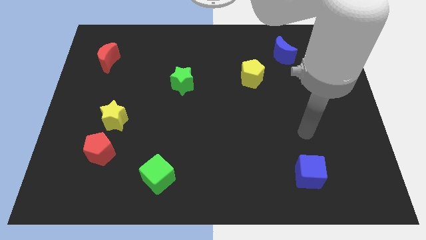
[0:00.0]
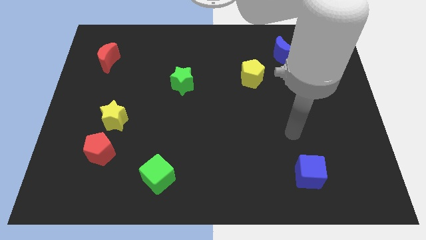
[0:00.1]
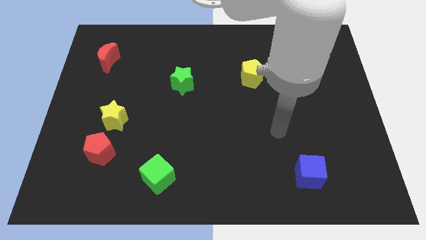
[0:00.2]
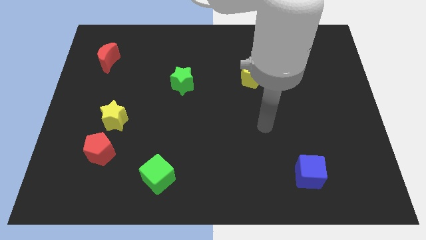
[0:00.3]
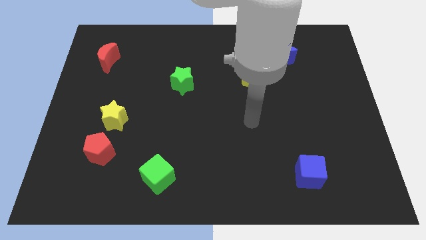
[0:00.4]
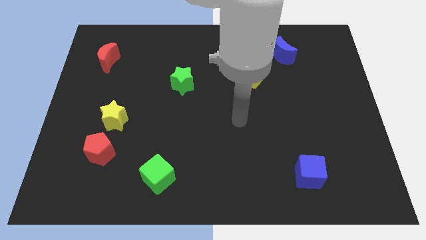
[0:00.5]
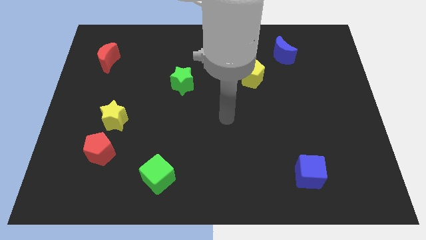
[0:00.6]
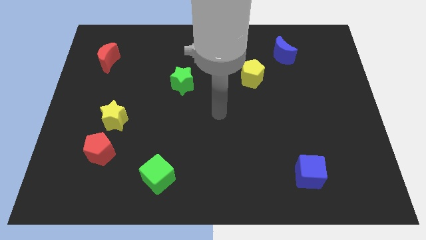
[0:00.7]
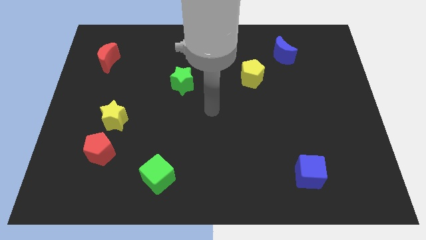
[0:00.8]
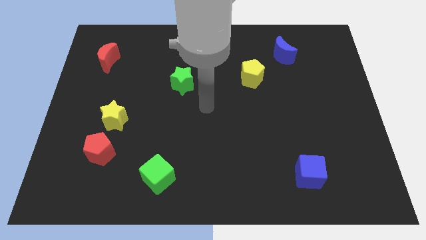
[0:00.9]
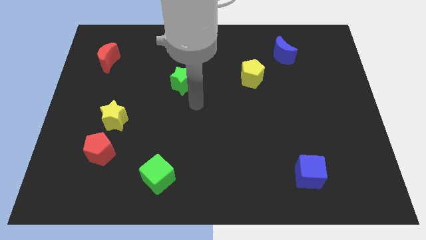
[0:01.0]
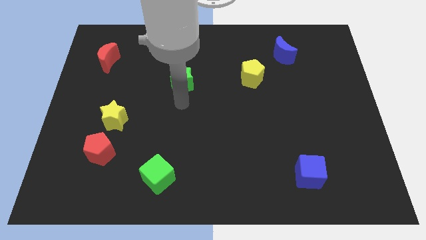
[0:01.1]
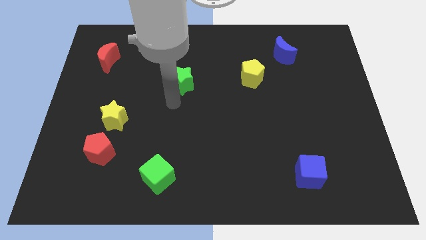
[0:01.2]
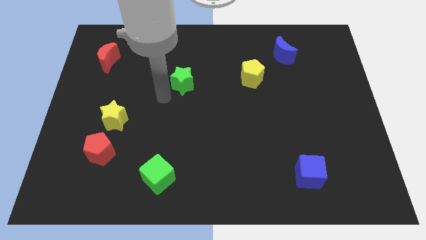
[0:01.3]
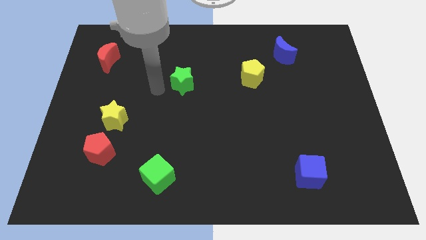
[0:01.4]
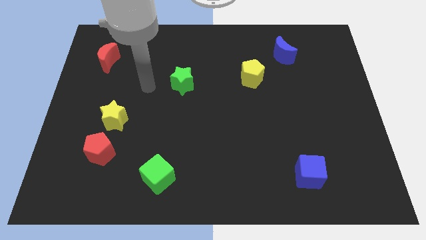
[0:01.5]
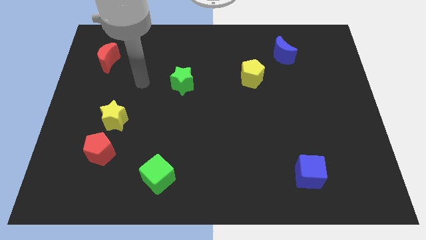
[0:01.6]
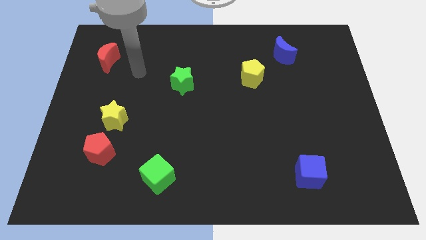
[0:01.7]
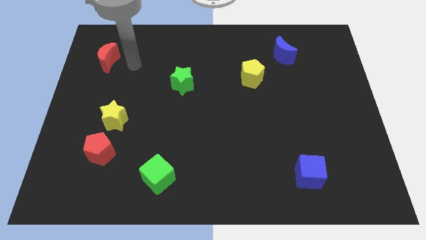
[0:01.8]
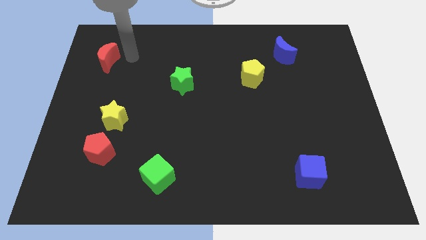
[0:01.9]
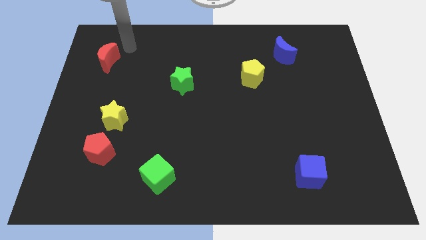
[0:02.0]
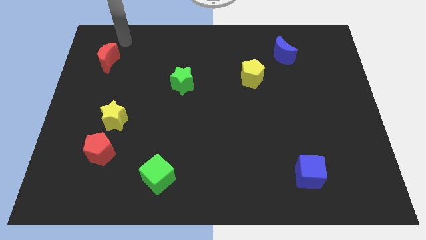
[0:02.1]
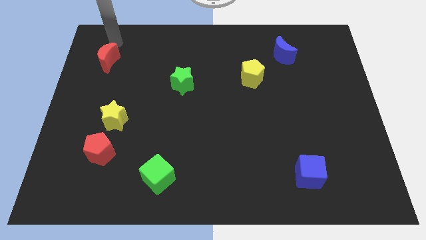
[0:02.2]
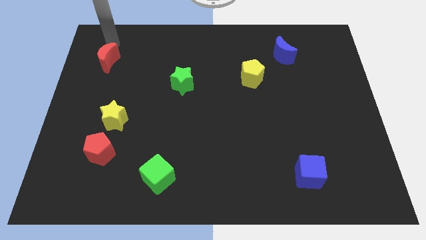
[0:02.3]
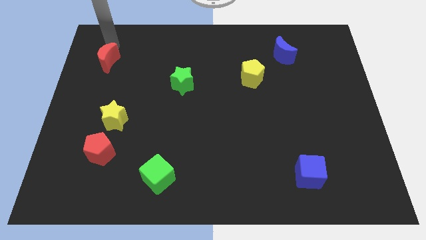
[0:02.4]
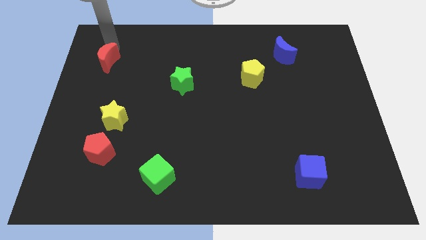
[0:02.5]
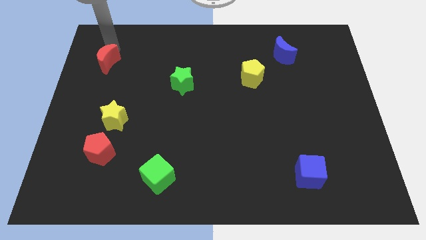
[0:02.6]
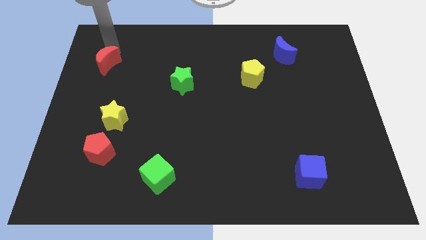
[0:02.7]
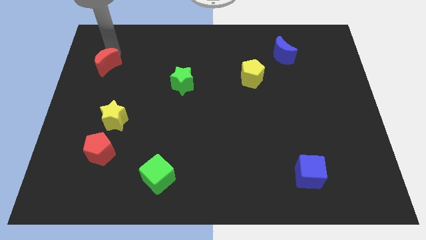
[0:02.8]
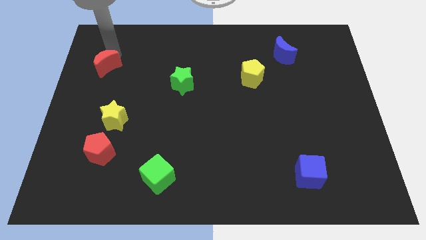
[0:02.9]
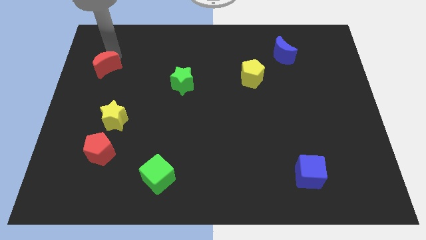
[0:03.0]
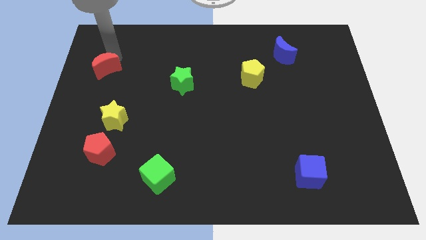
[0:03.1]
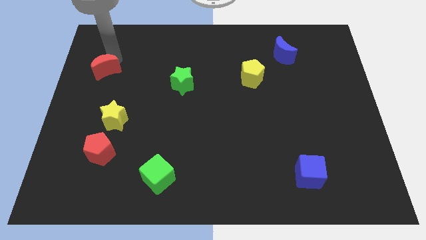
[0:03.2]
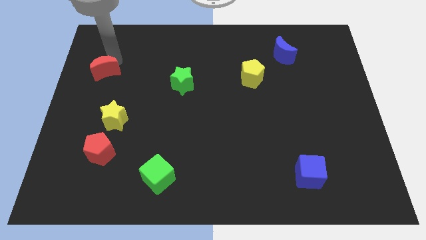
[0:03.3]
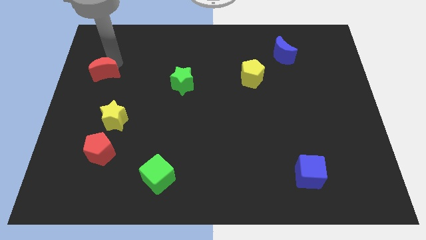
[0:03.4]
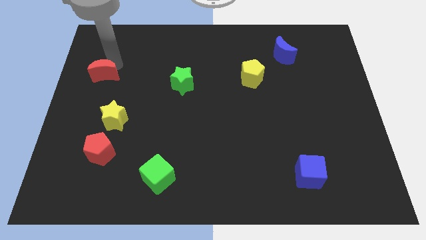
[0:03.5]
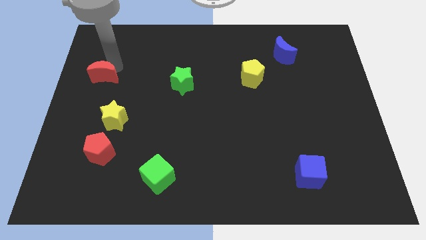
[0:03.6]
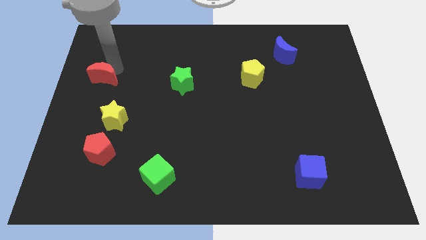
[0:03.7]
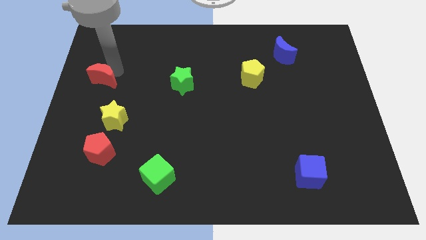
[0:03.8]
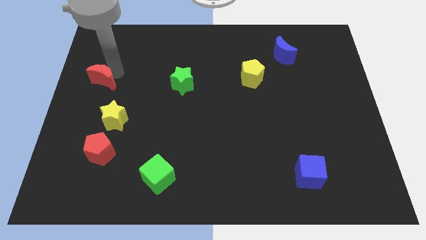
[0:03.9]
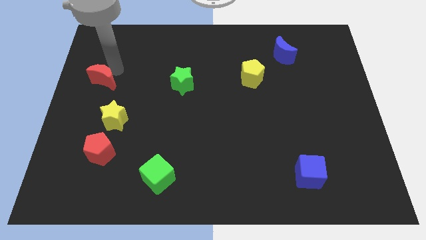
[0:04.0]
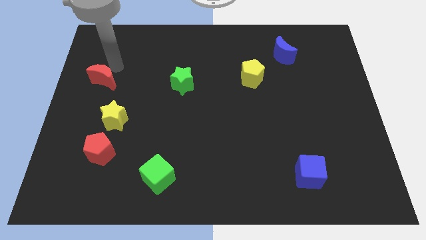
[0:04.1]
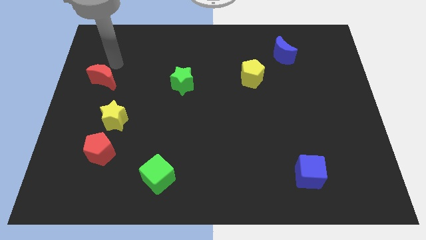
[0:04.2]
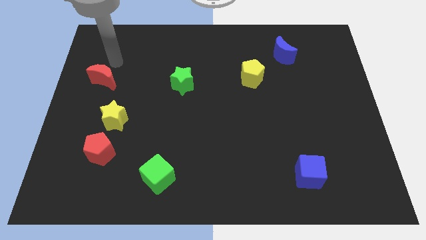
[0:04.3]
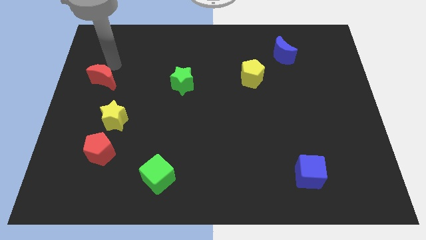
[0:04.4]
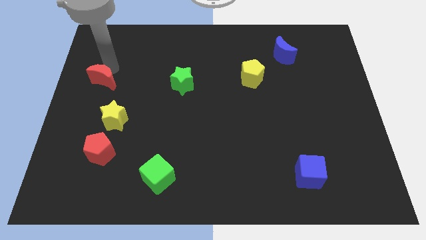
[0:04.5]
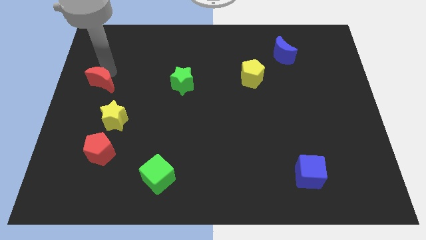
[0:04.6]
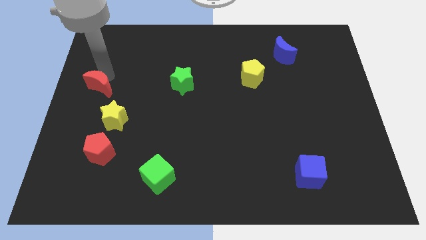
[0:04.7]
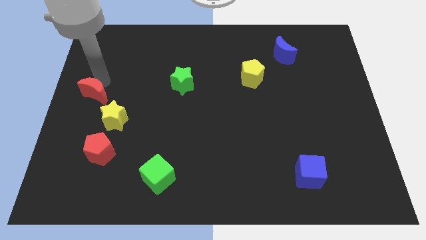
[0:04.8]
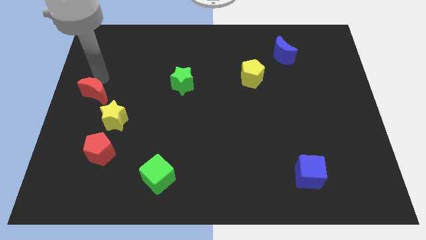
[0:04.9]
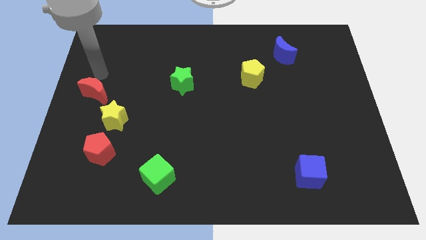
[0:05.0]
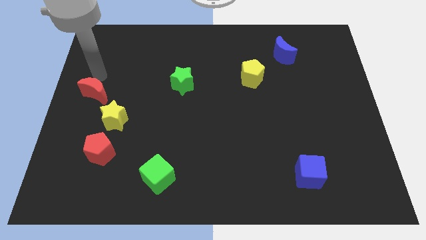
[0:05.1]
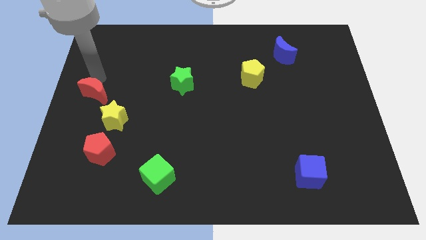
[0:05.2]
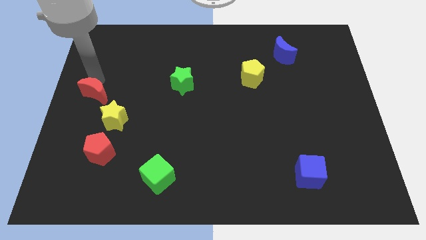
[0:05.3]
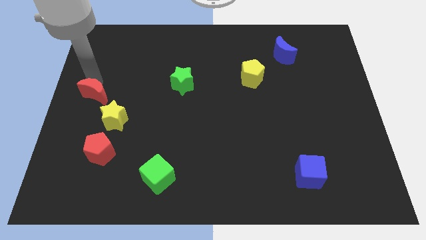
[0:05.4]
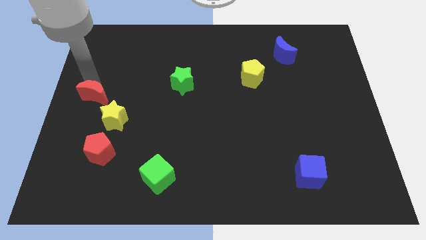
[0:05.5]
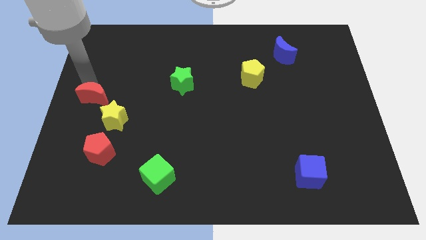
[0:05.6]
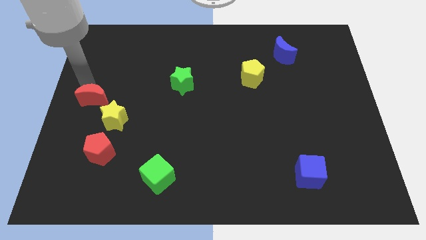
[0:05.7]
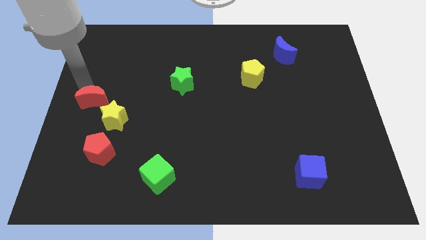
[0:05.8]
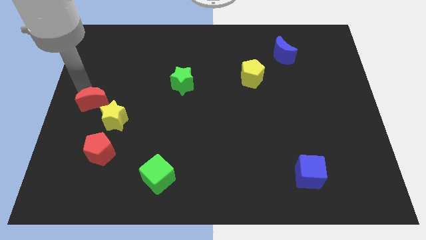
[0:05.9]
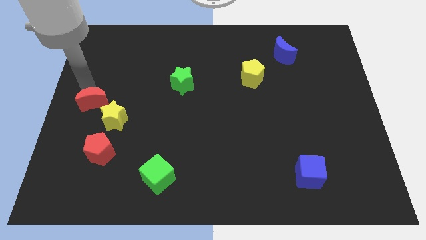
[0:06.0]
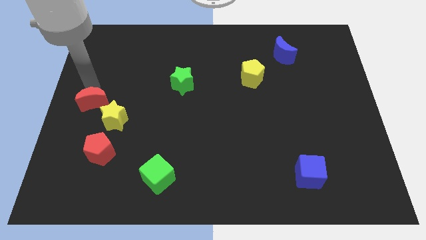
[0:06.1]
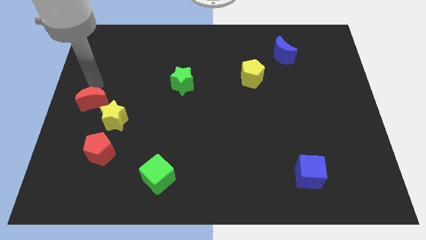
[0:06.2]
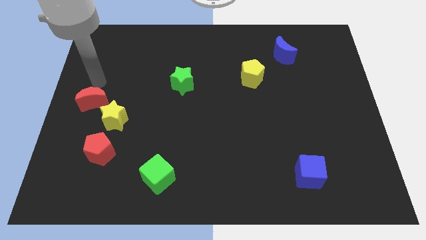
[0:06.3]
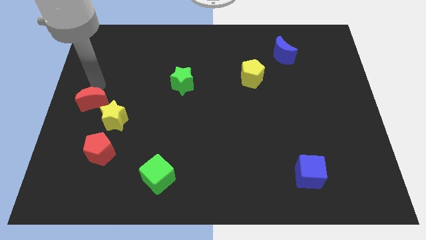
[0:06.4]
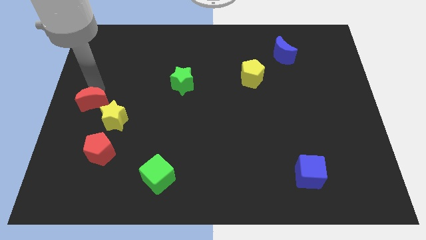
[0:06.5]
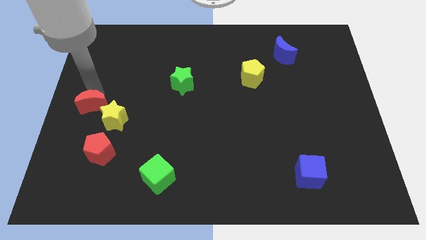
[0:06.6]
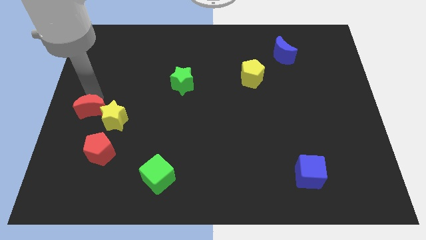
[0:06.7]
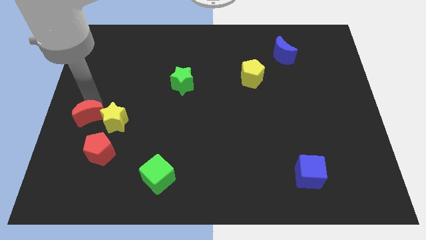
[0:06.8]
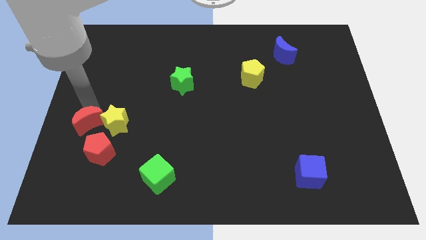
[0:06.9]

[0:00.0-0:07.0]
push the red moon downwards

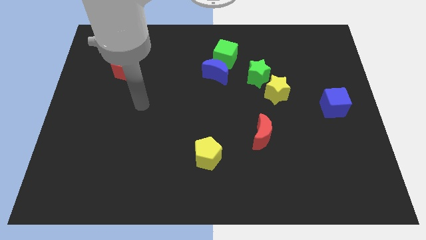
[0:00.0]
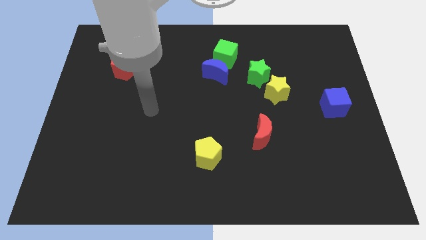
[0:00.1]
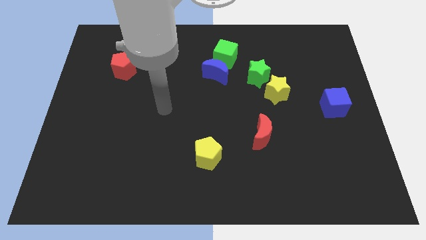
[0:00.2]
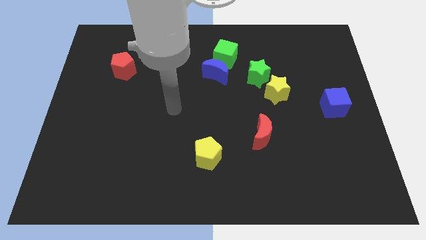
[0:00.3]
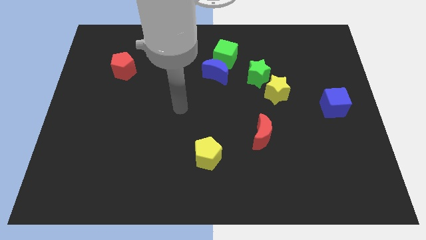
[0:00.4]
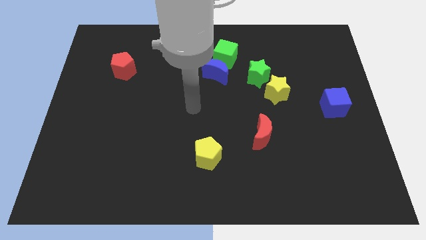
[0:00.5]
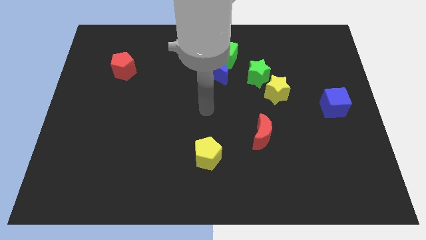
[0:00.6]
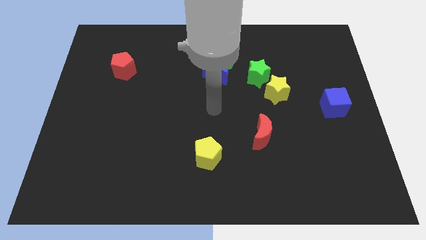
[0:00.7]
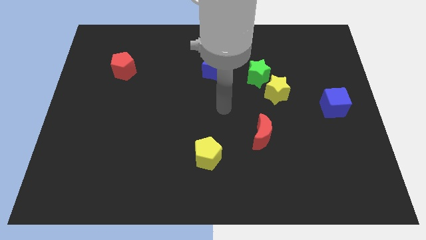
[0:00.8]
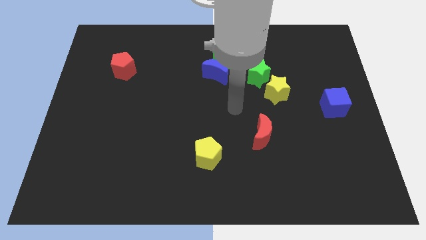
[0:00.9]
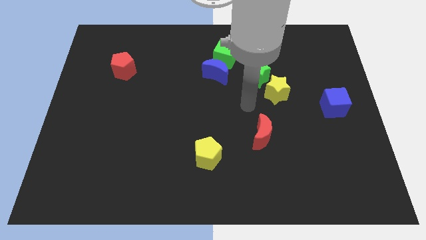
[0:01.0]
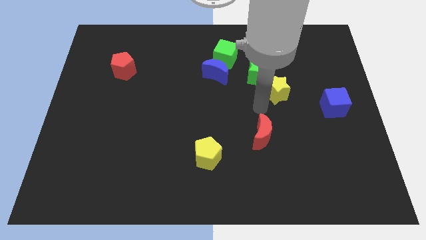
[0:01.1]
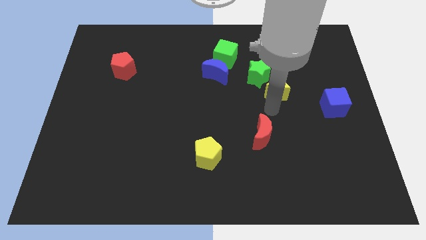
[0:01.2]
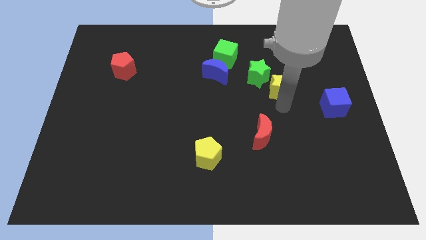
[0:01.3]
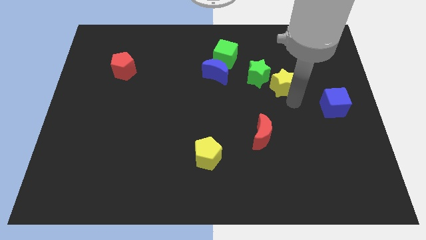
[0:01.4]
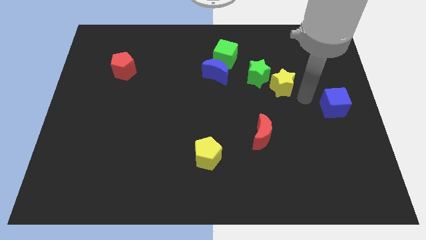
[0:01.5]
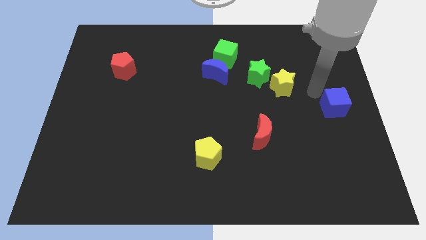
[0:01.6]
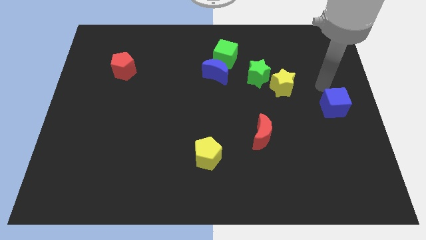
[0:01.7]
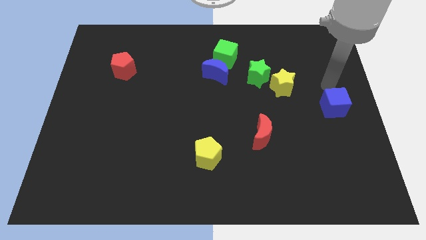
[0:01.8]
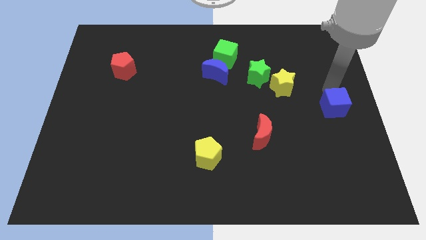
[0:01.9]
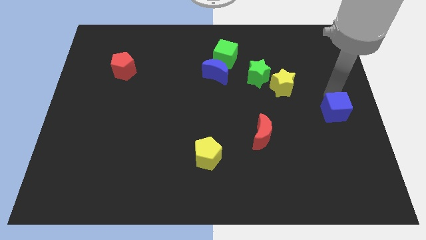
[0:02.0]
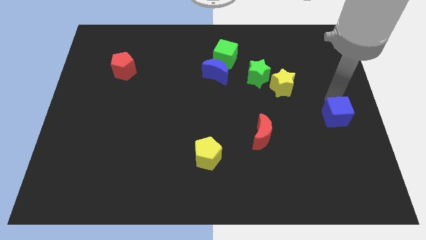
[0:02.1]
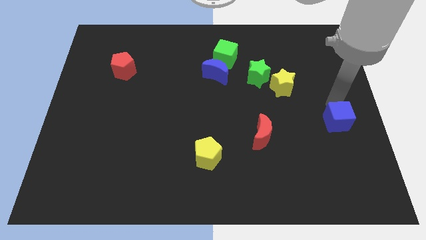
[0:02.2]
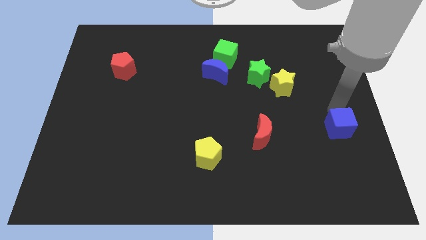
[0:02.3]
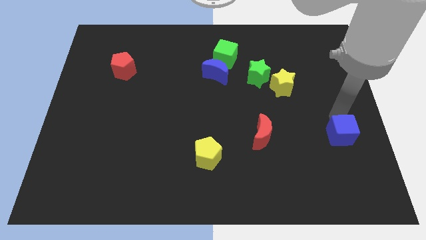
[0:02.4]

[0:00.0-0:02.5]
move the blue cube downwards slightly
